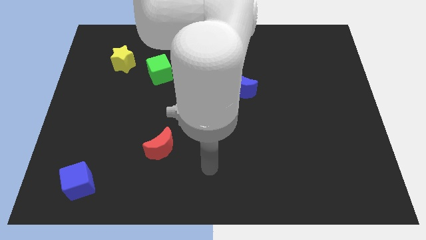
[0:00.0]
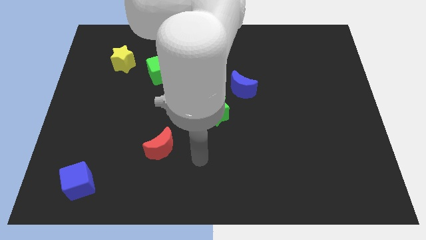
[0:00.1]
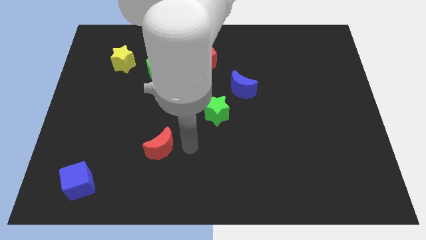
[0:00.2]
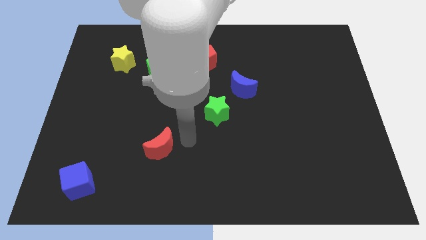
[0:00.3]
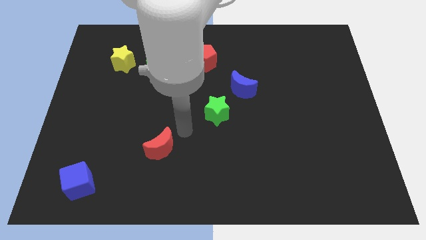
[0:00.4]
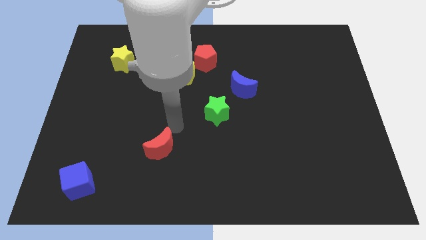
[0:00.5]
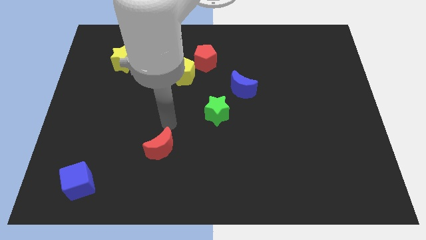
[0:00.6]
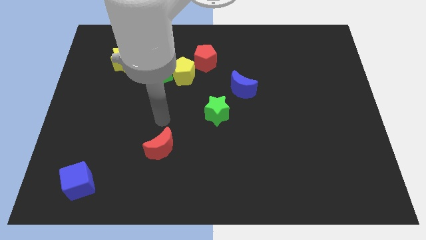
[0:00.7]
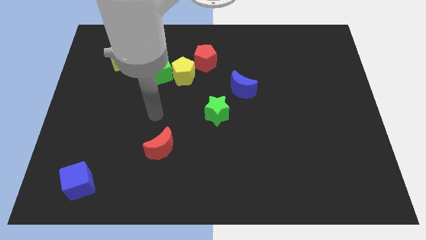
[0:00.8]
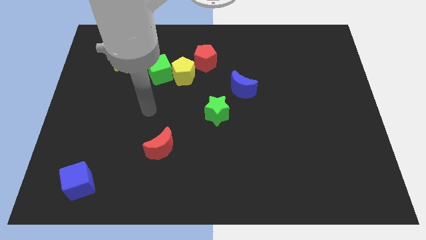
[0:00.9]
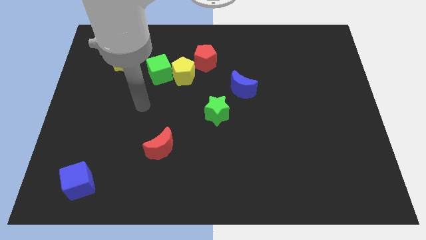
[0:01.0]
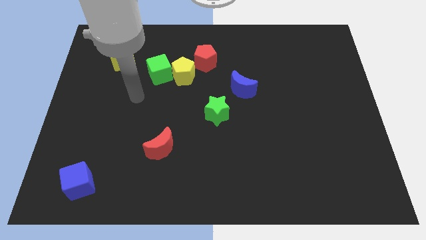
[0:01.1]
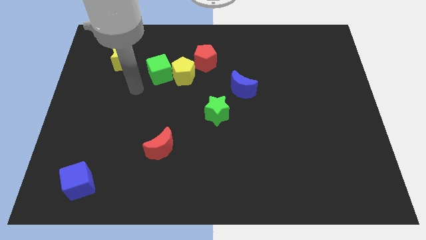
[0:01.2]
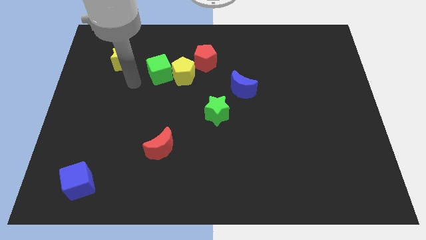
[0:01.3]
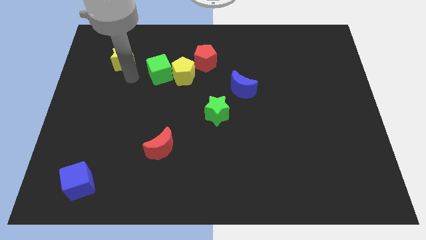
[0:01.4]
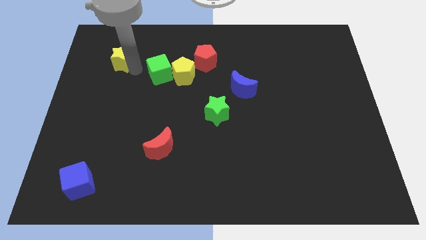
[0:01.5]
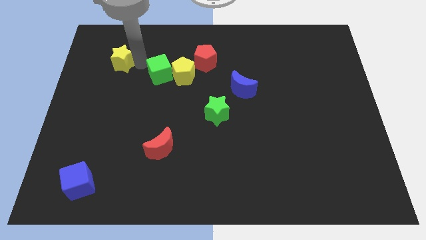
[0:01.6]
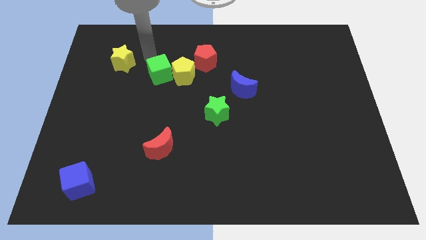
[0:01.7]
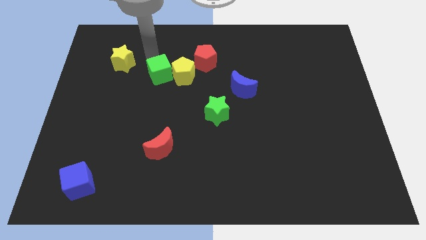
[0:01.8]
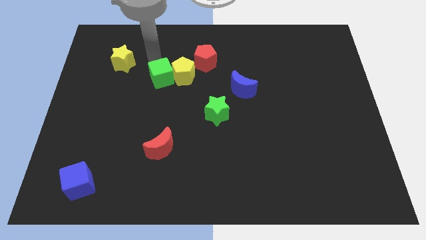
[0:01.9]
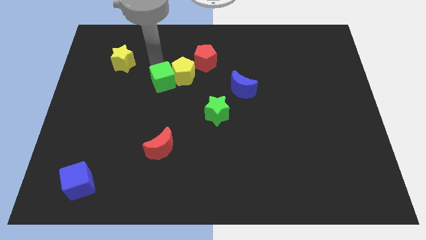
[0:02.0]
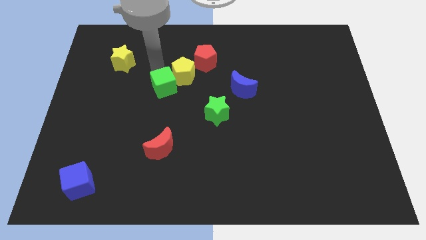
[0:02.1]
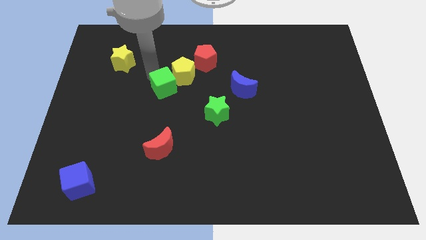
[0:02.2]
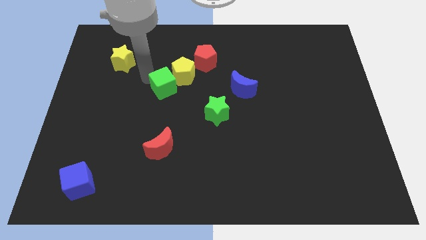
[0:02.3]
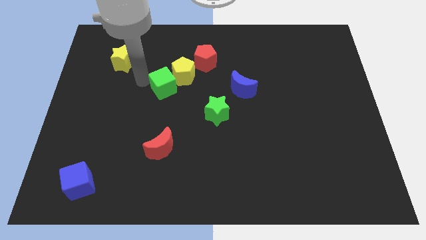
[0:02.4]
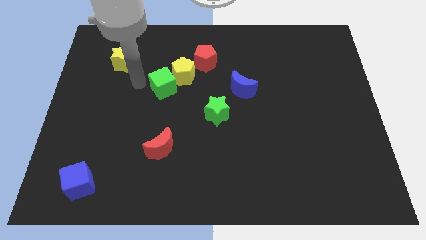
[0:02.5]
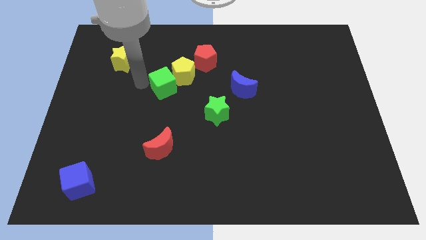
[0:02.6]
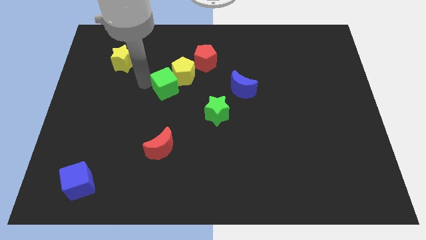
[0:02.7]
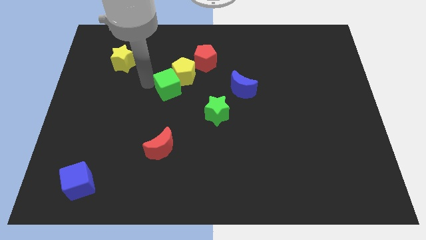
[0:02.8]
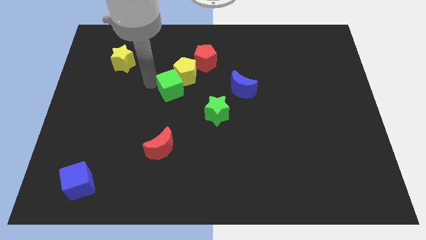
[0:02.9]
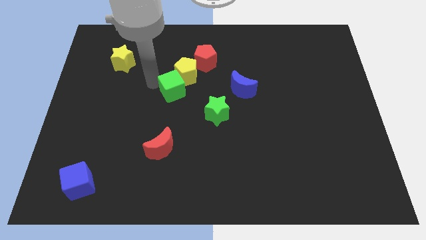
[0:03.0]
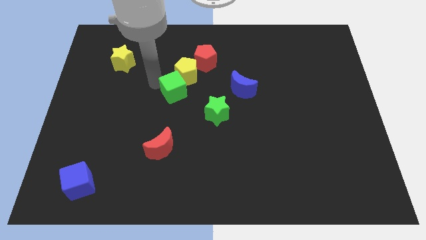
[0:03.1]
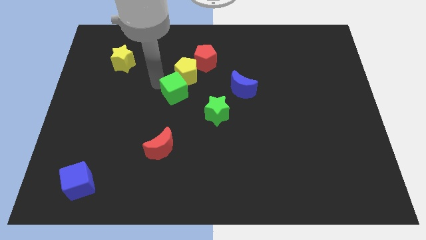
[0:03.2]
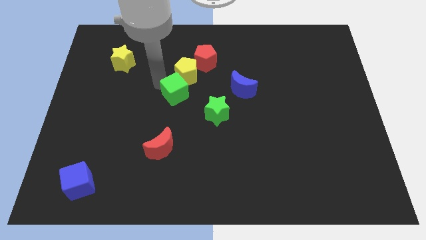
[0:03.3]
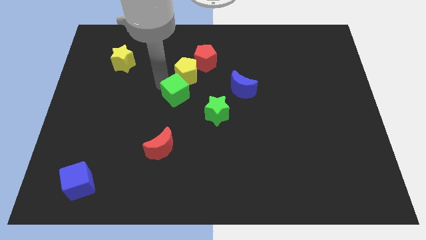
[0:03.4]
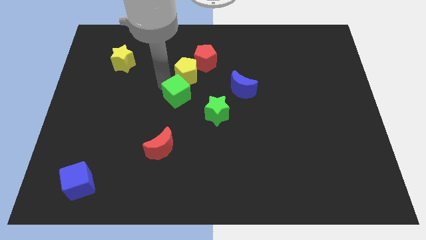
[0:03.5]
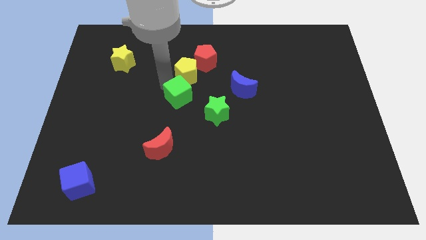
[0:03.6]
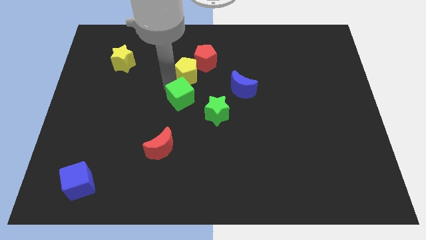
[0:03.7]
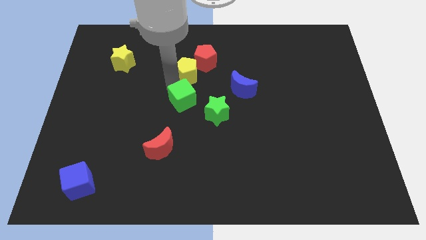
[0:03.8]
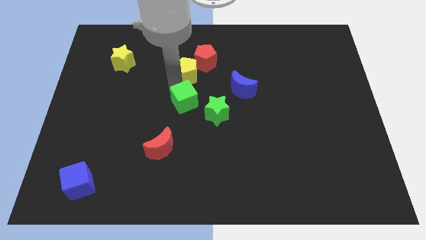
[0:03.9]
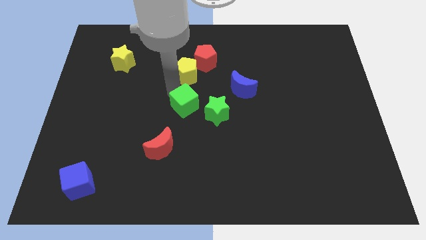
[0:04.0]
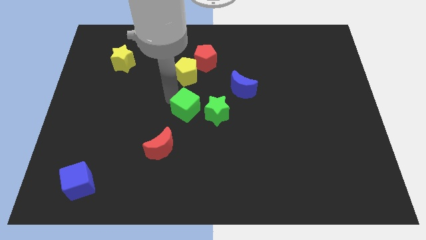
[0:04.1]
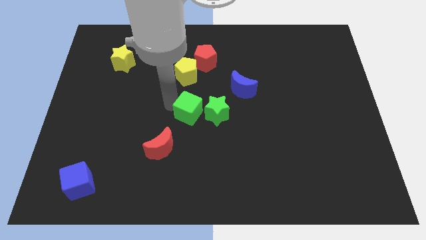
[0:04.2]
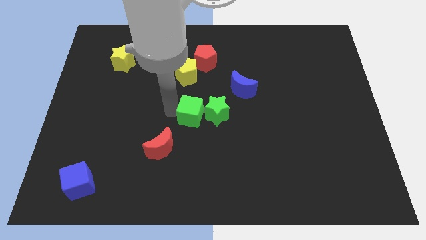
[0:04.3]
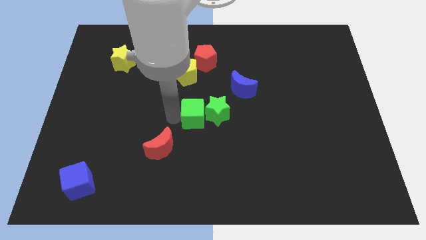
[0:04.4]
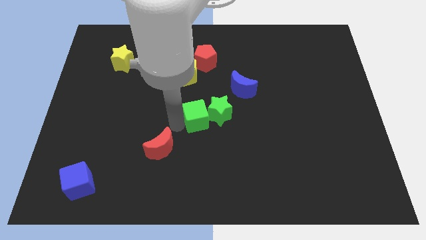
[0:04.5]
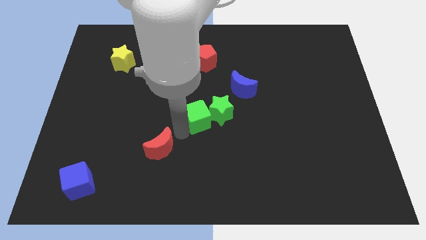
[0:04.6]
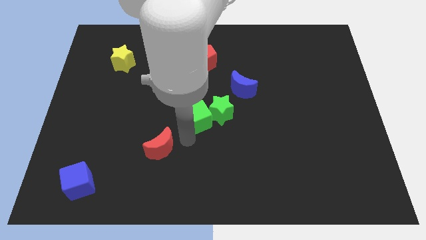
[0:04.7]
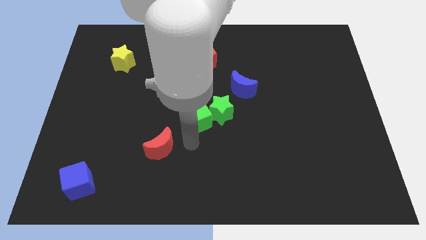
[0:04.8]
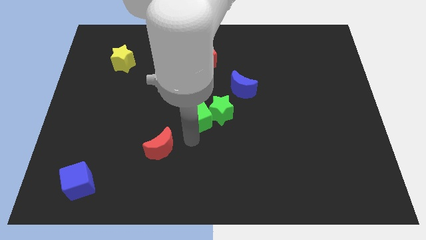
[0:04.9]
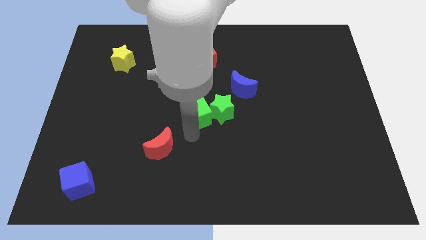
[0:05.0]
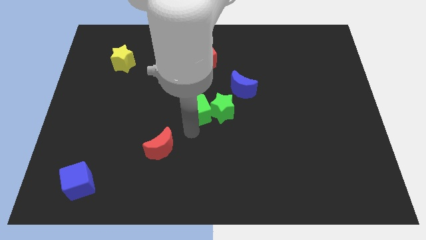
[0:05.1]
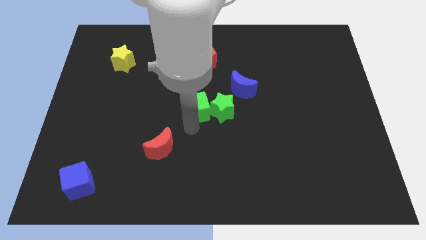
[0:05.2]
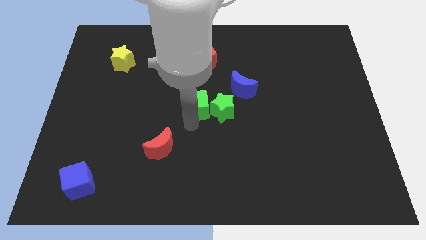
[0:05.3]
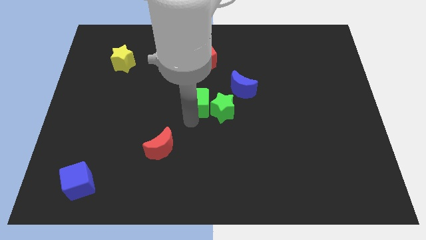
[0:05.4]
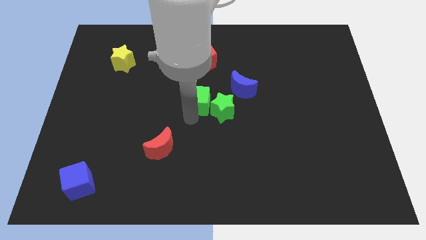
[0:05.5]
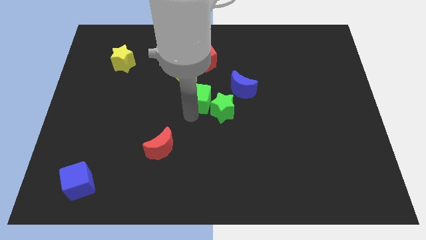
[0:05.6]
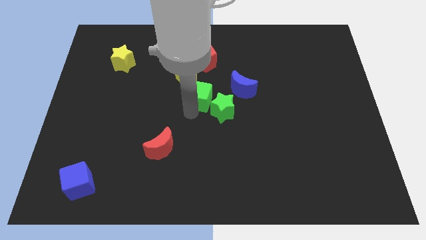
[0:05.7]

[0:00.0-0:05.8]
slightly push the green cube to the right

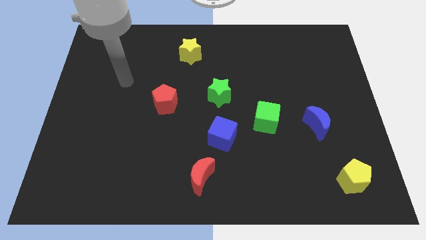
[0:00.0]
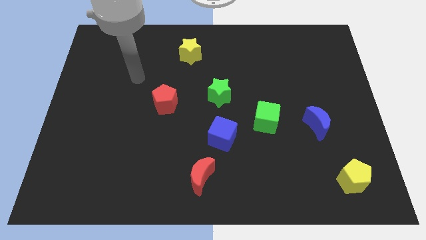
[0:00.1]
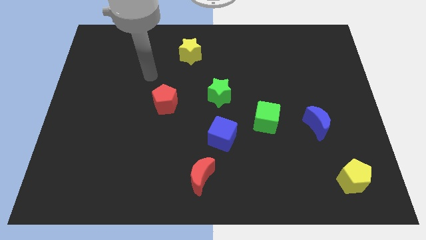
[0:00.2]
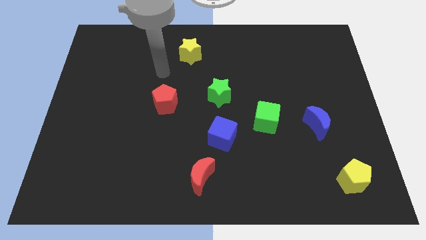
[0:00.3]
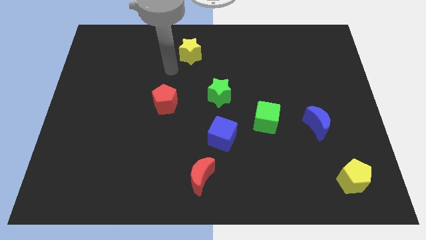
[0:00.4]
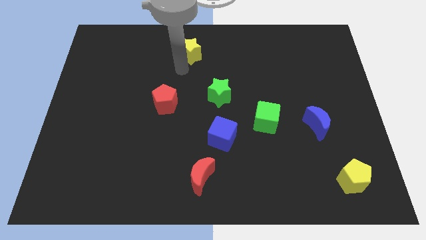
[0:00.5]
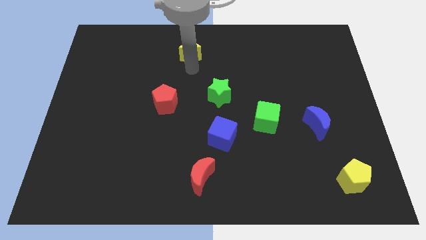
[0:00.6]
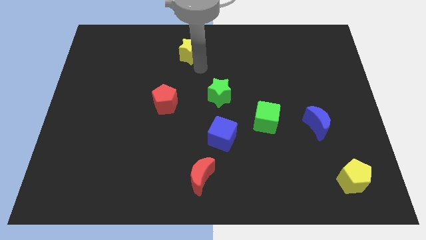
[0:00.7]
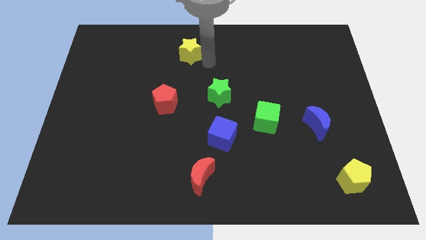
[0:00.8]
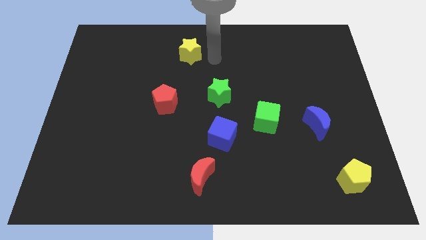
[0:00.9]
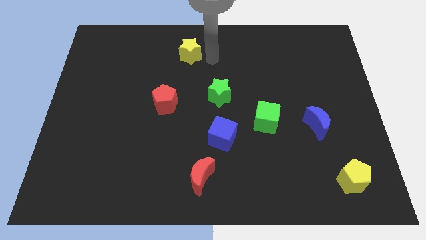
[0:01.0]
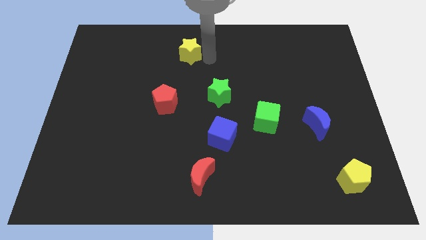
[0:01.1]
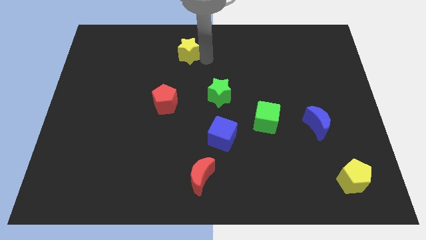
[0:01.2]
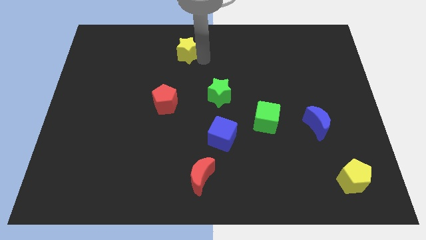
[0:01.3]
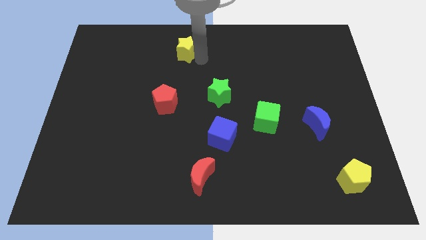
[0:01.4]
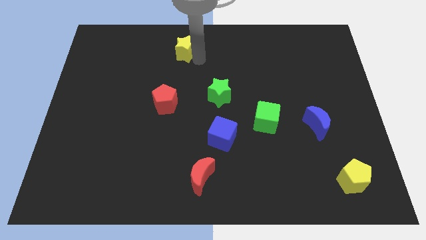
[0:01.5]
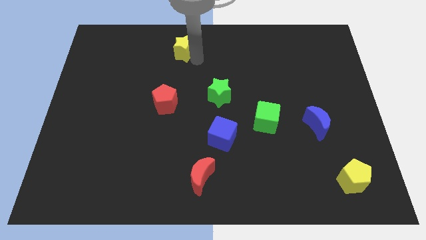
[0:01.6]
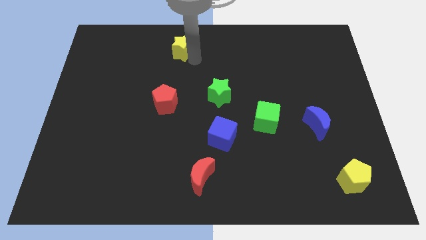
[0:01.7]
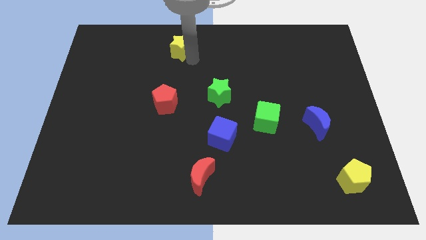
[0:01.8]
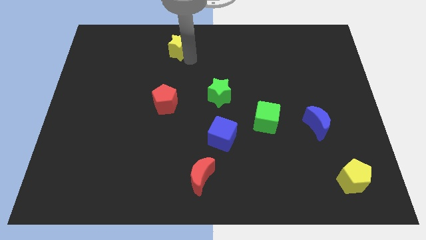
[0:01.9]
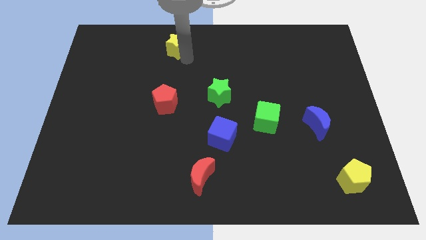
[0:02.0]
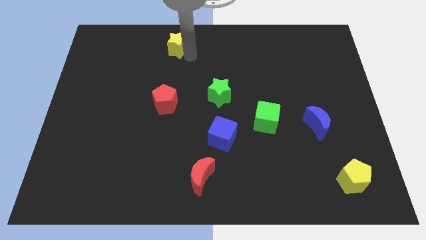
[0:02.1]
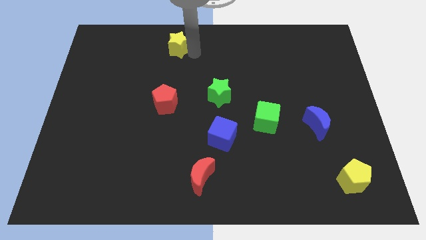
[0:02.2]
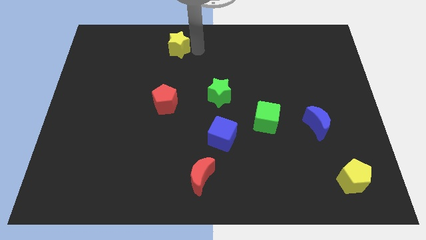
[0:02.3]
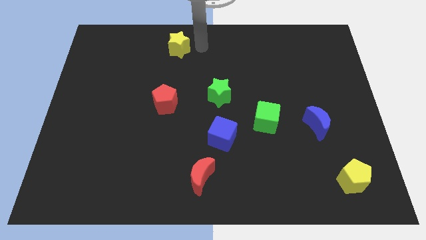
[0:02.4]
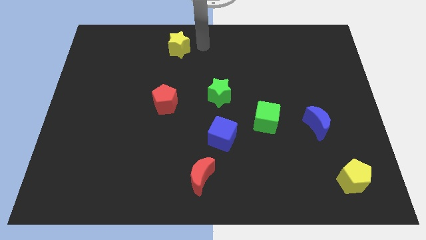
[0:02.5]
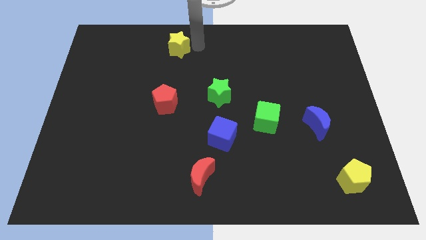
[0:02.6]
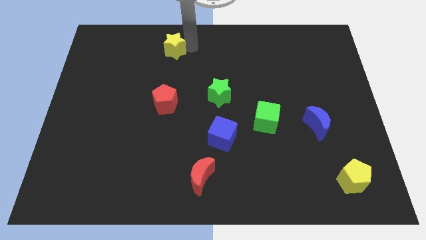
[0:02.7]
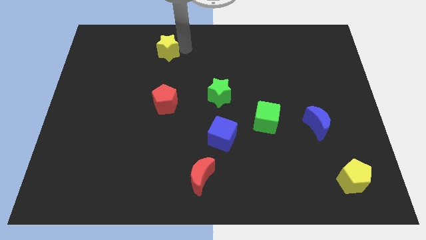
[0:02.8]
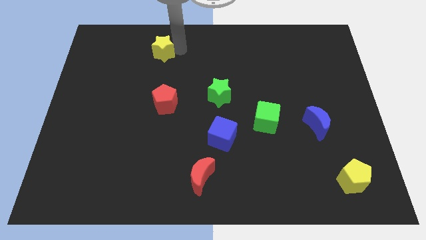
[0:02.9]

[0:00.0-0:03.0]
push the yellow star a little bit left
